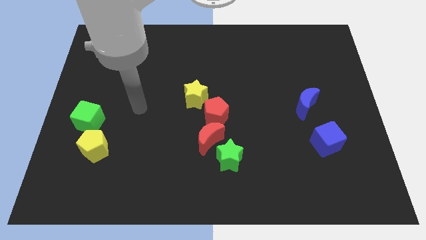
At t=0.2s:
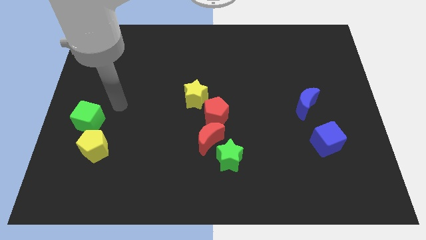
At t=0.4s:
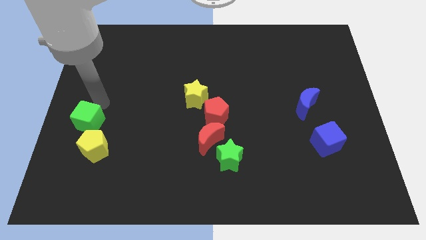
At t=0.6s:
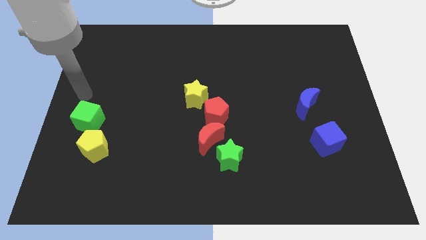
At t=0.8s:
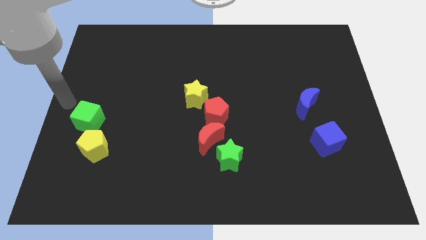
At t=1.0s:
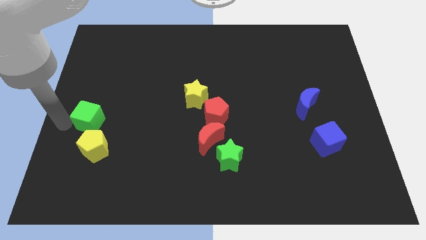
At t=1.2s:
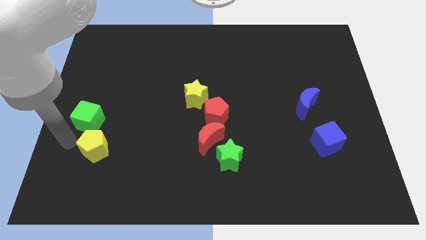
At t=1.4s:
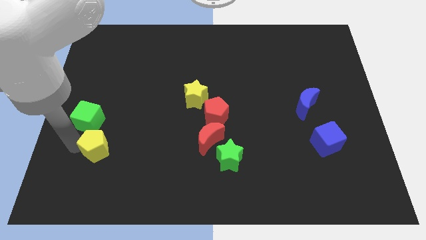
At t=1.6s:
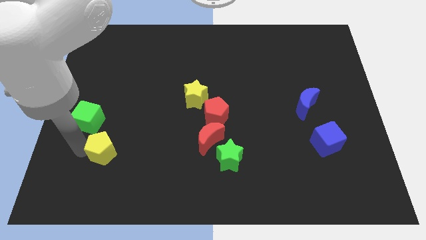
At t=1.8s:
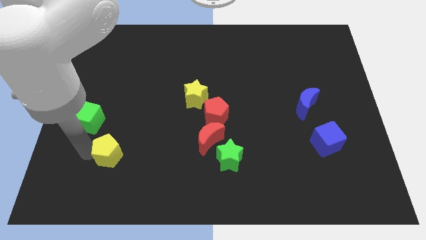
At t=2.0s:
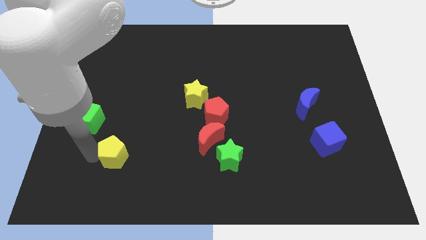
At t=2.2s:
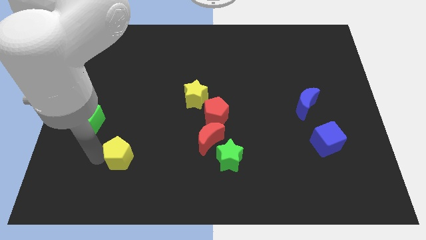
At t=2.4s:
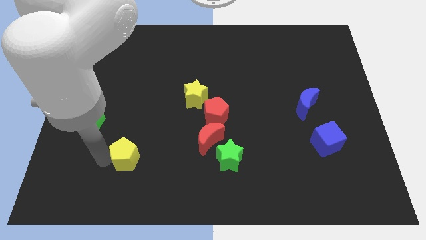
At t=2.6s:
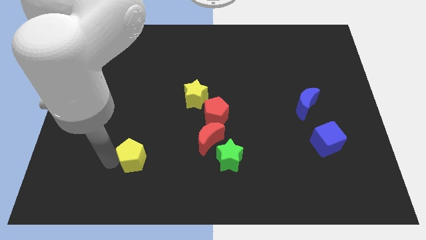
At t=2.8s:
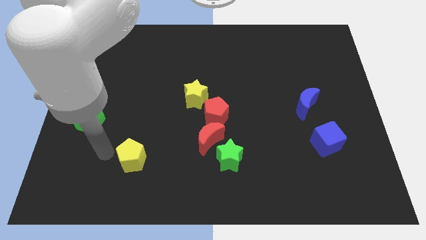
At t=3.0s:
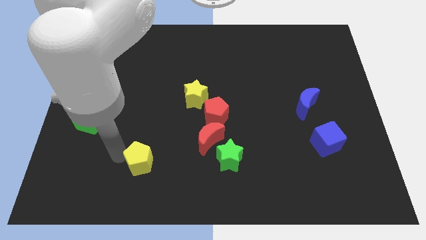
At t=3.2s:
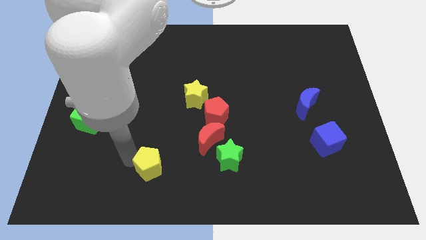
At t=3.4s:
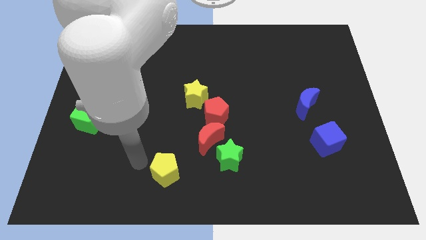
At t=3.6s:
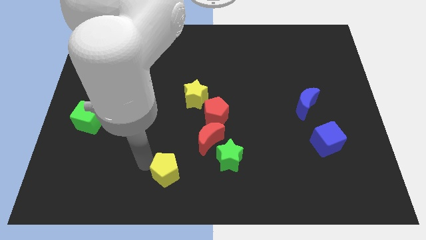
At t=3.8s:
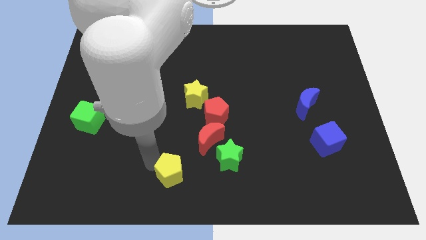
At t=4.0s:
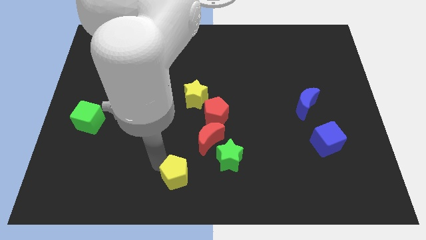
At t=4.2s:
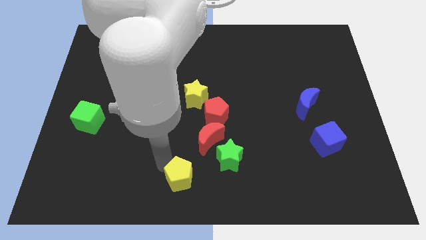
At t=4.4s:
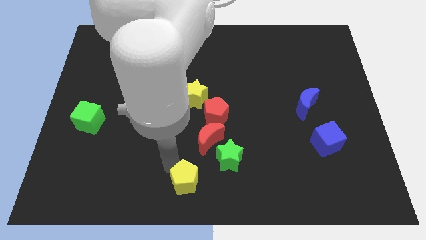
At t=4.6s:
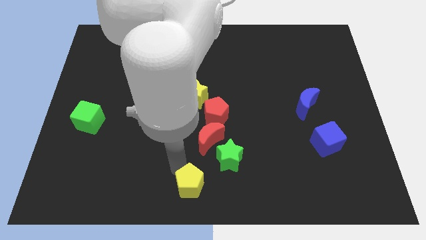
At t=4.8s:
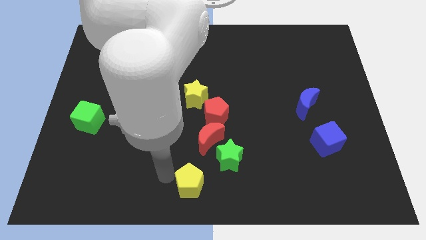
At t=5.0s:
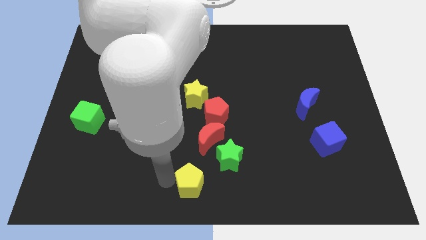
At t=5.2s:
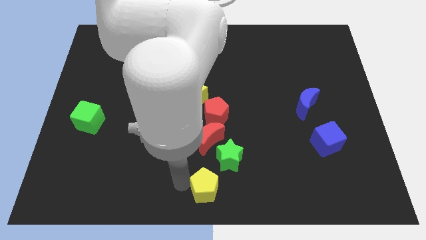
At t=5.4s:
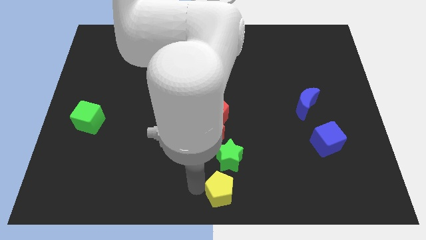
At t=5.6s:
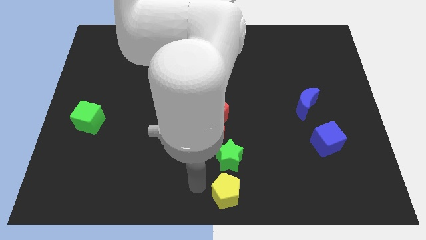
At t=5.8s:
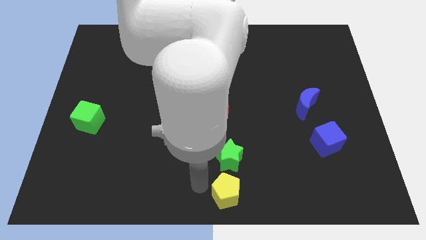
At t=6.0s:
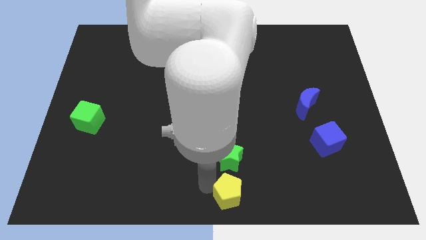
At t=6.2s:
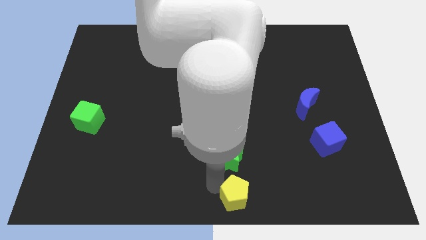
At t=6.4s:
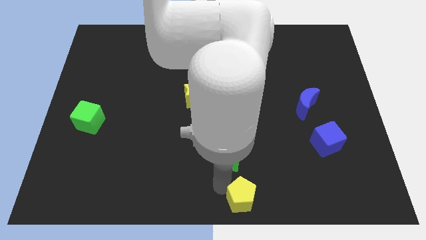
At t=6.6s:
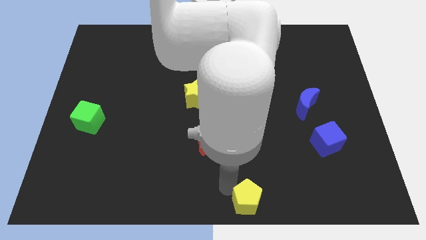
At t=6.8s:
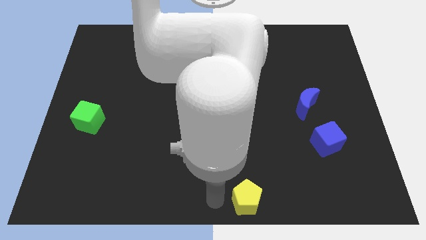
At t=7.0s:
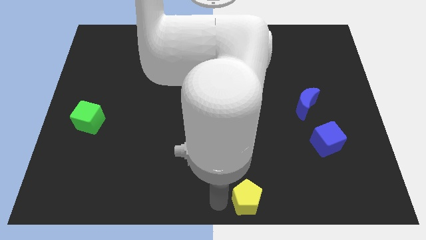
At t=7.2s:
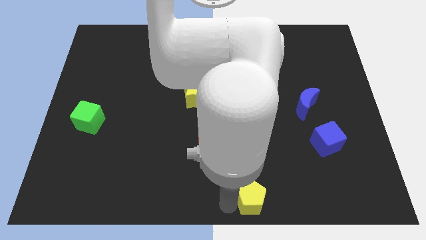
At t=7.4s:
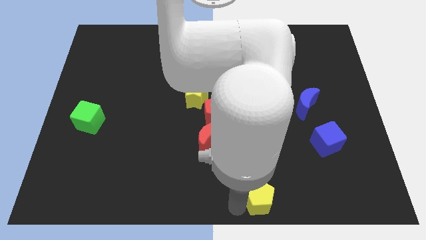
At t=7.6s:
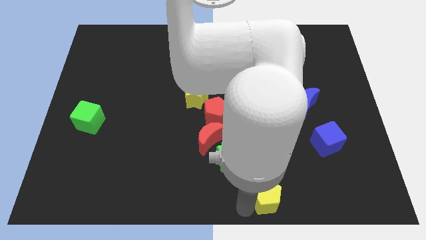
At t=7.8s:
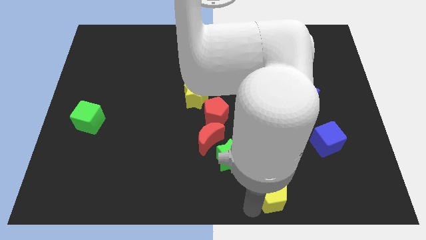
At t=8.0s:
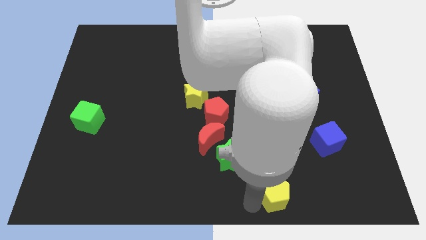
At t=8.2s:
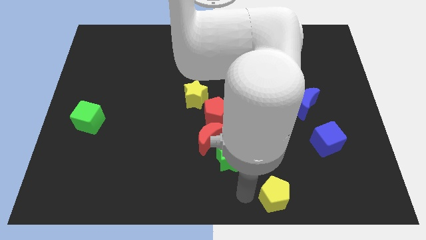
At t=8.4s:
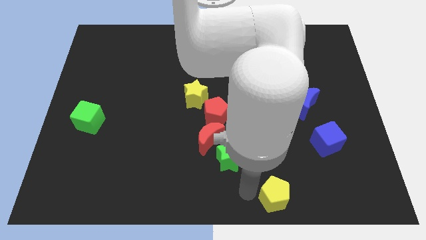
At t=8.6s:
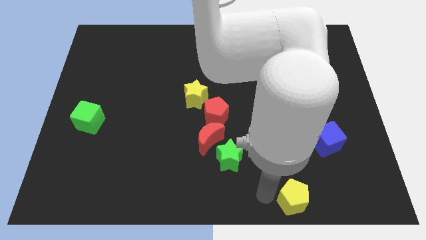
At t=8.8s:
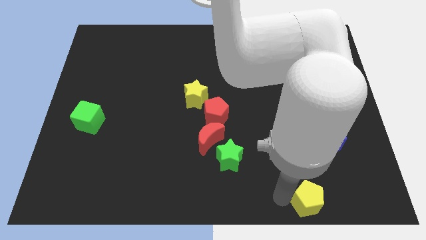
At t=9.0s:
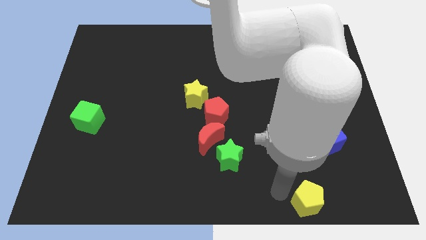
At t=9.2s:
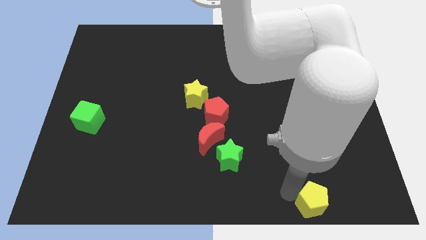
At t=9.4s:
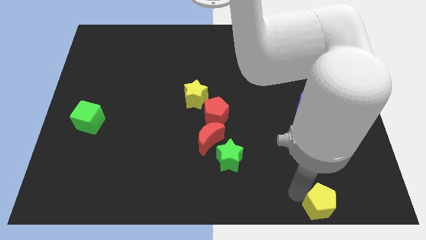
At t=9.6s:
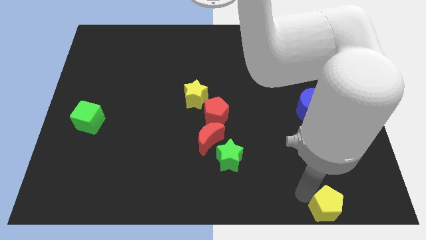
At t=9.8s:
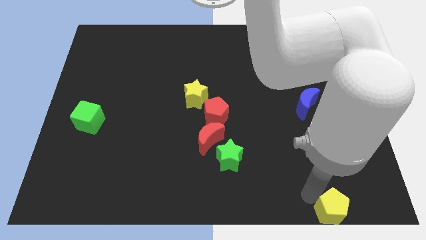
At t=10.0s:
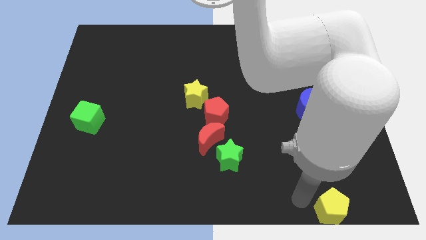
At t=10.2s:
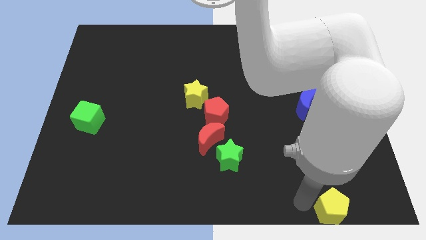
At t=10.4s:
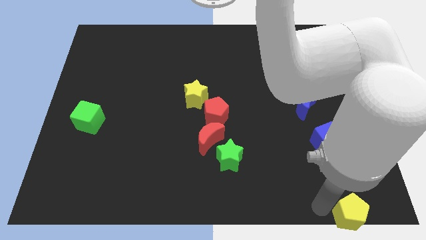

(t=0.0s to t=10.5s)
push the yellow pentagon to the lower right corner

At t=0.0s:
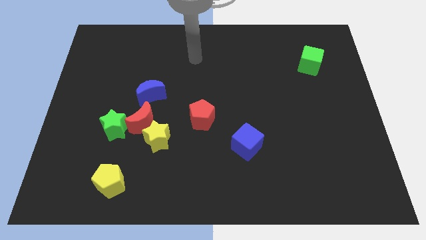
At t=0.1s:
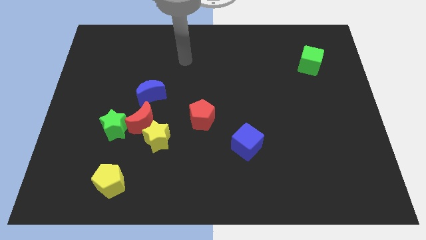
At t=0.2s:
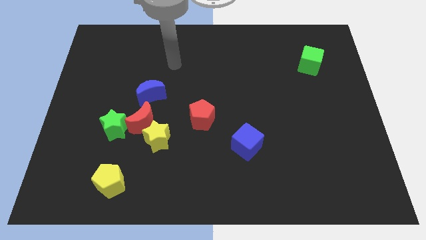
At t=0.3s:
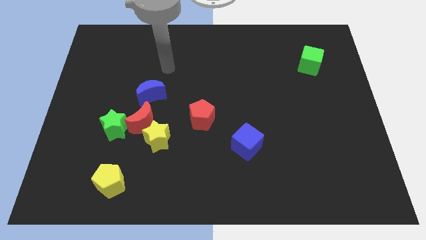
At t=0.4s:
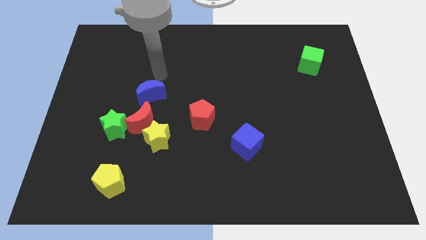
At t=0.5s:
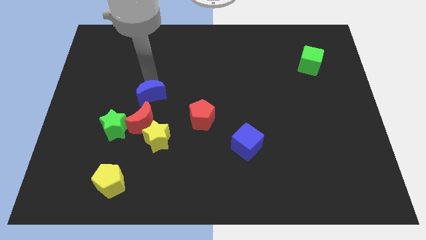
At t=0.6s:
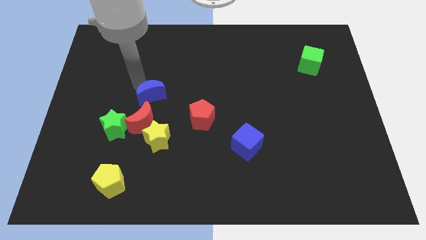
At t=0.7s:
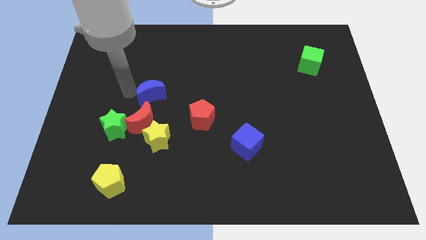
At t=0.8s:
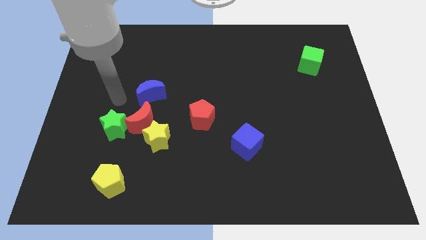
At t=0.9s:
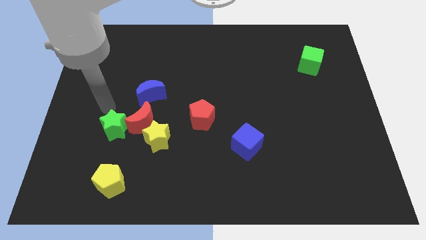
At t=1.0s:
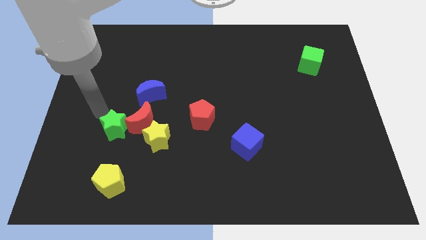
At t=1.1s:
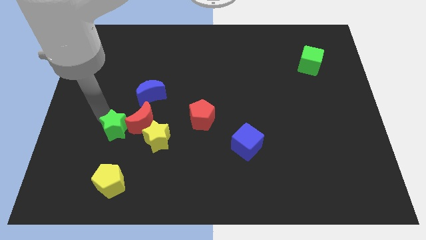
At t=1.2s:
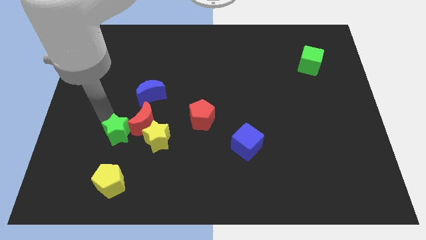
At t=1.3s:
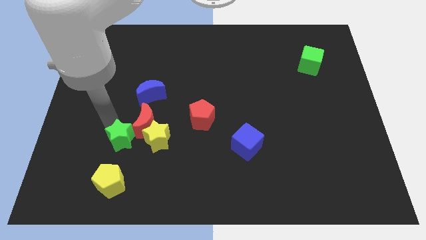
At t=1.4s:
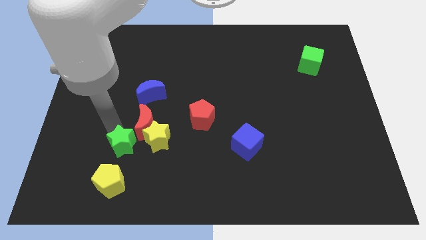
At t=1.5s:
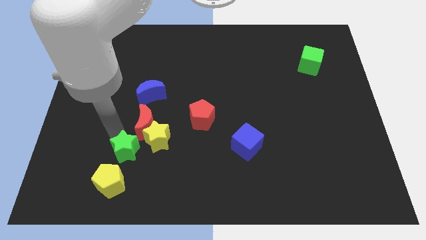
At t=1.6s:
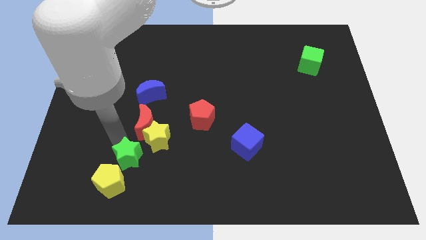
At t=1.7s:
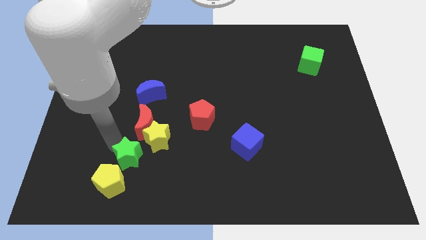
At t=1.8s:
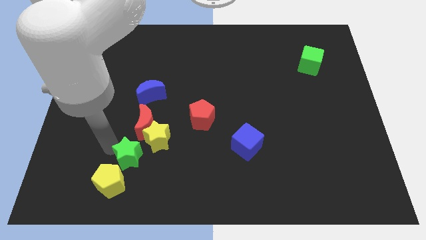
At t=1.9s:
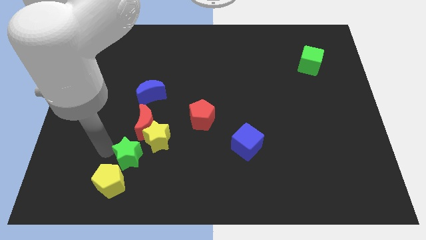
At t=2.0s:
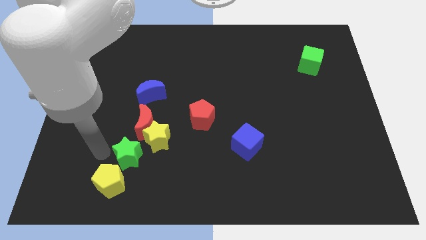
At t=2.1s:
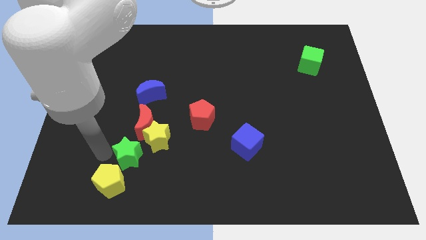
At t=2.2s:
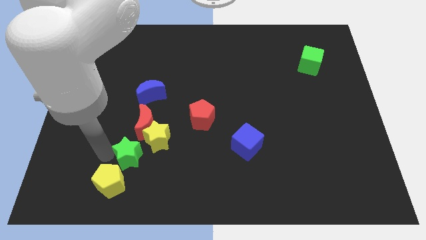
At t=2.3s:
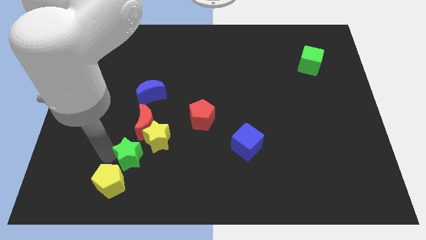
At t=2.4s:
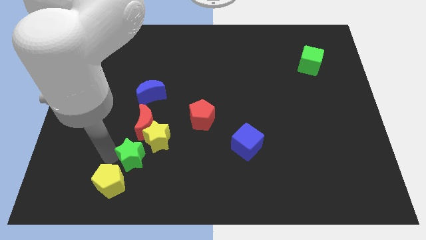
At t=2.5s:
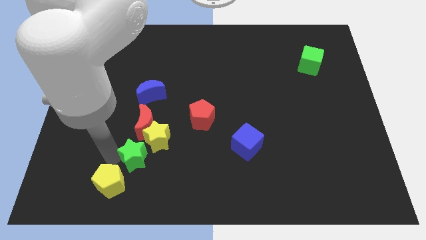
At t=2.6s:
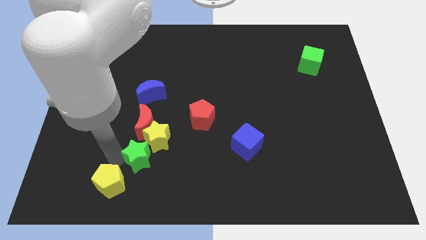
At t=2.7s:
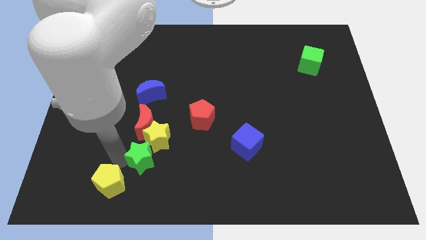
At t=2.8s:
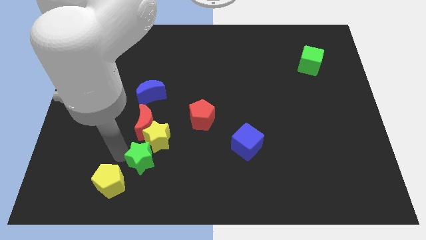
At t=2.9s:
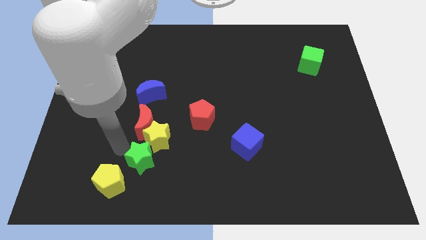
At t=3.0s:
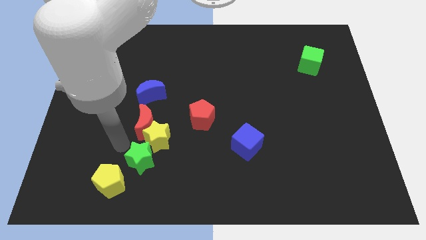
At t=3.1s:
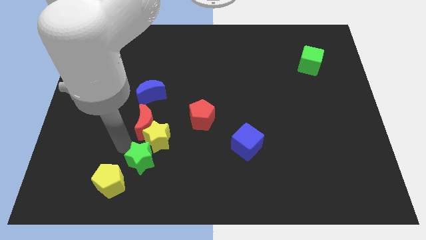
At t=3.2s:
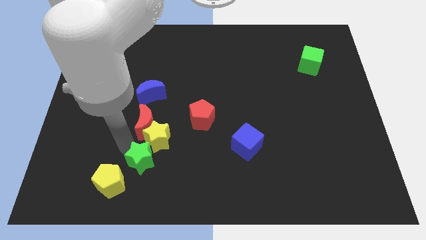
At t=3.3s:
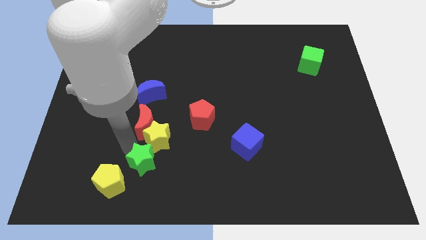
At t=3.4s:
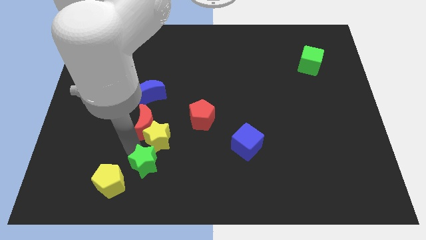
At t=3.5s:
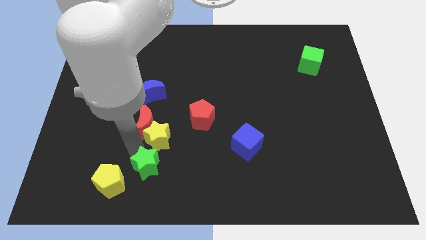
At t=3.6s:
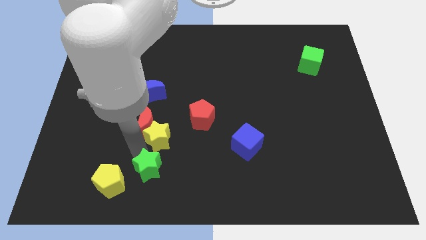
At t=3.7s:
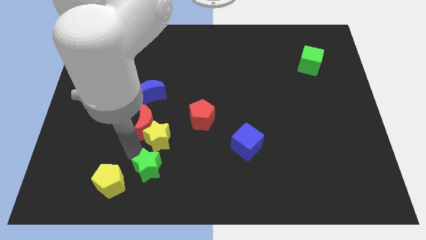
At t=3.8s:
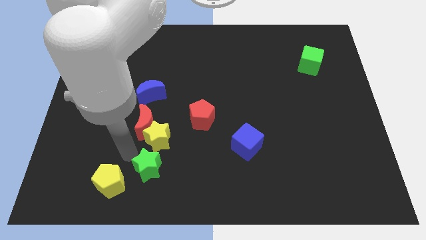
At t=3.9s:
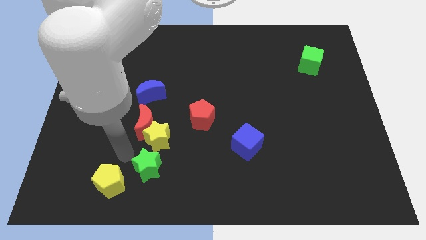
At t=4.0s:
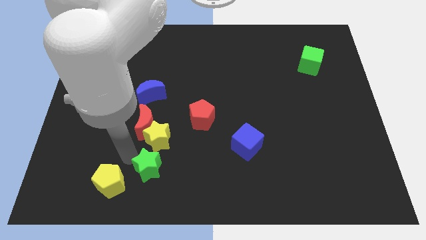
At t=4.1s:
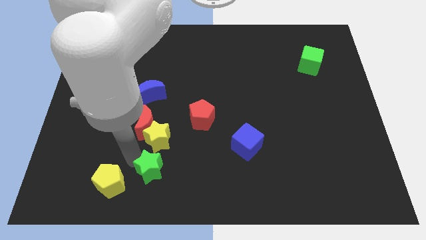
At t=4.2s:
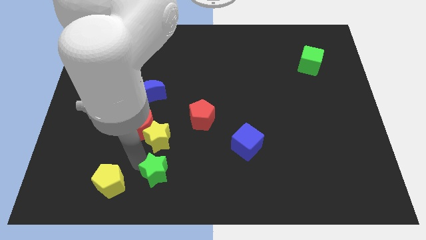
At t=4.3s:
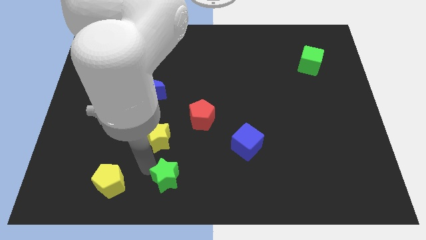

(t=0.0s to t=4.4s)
push the green star to the bottom side
